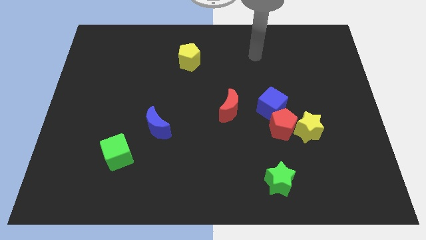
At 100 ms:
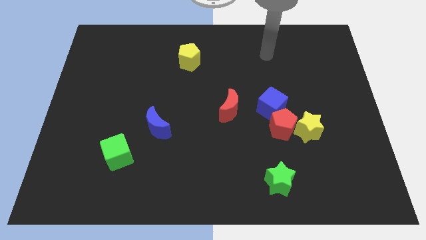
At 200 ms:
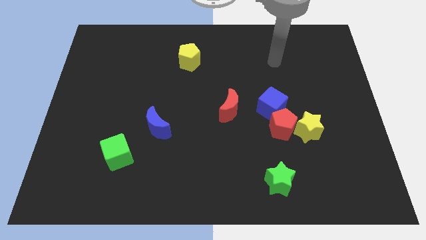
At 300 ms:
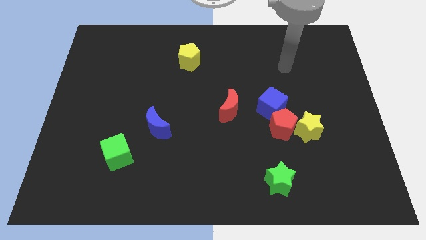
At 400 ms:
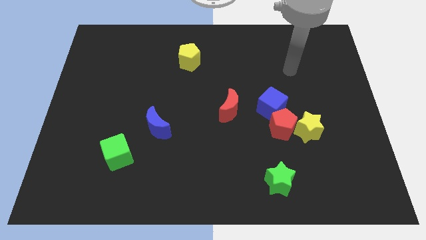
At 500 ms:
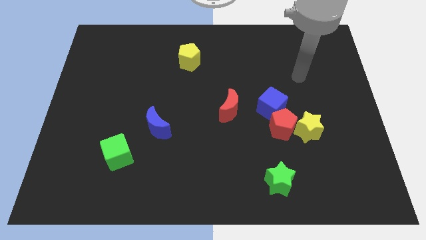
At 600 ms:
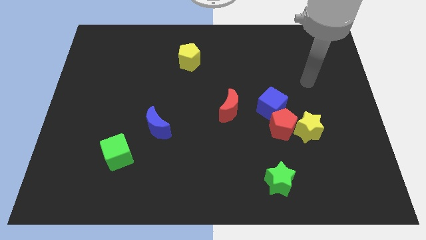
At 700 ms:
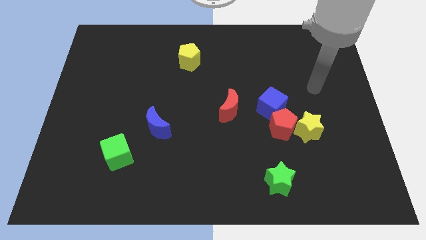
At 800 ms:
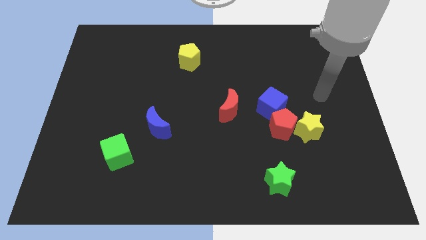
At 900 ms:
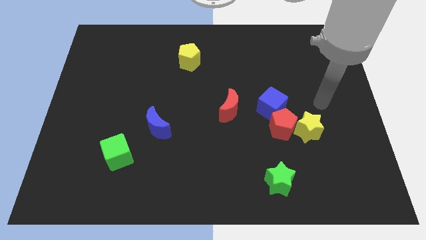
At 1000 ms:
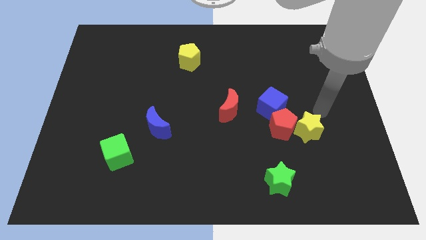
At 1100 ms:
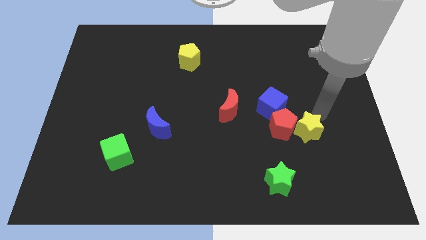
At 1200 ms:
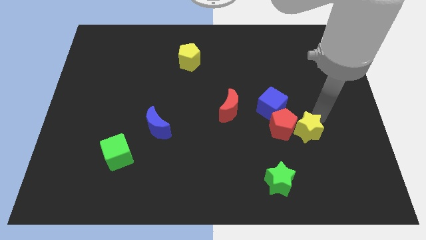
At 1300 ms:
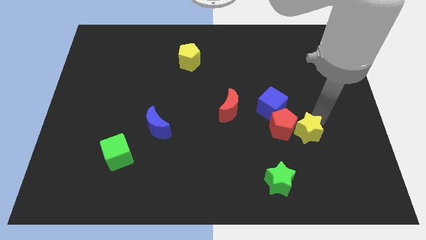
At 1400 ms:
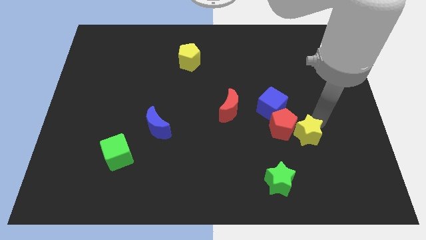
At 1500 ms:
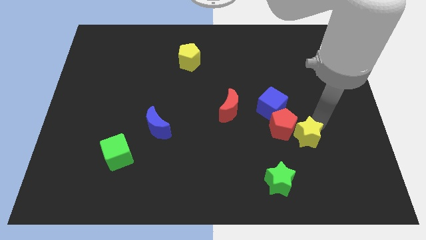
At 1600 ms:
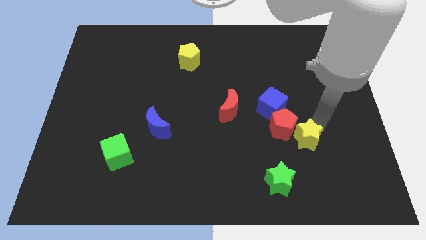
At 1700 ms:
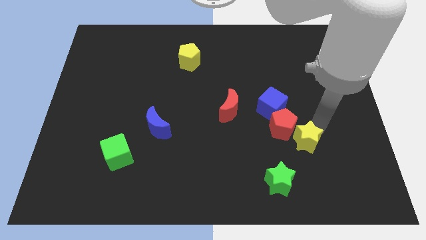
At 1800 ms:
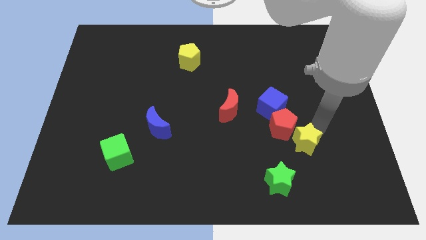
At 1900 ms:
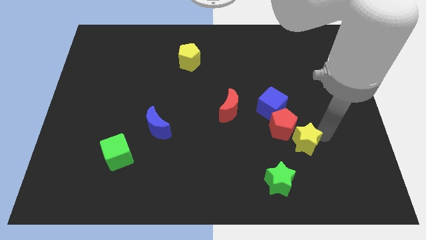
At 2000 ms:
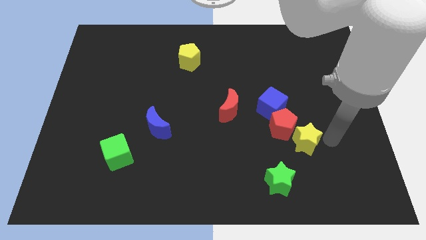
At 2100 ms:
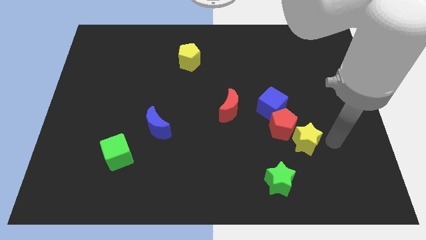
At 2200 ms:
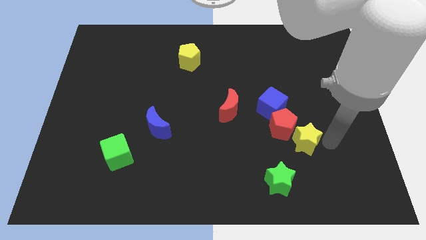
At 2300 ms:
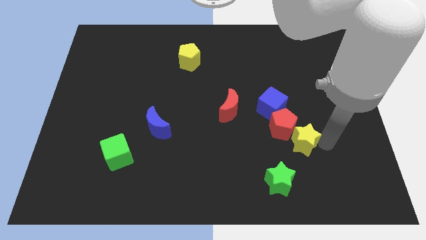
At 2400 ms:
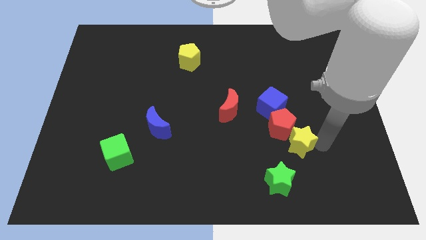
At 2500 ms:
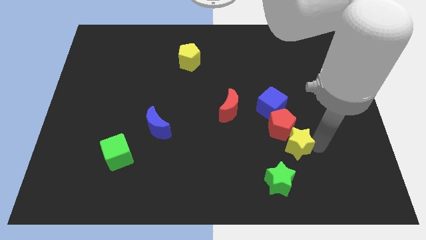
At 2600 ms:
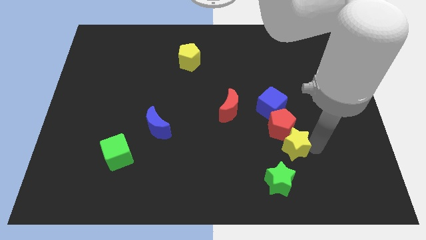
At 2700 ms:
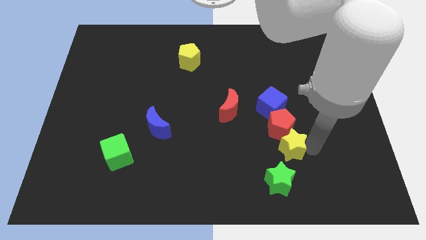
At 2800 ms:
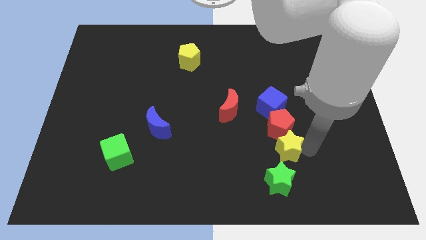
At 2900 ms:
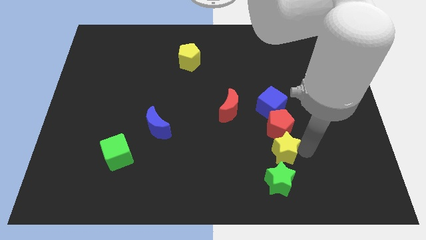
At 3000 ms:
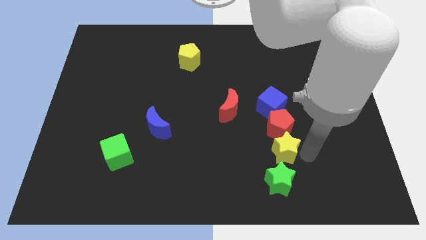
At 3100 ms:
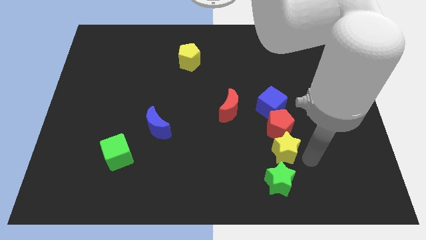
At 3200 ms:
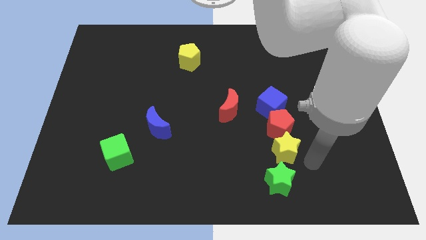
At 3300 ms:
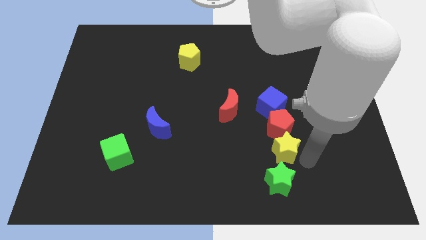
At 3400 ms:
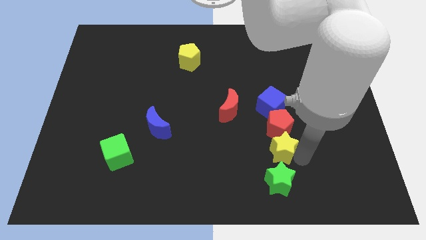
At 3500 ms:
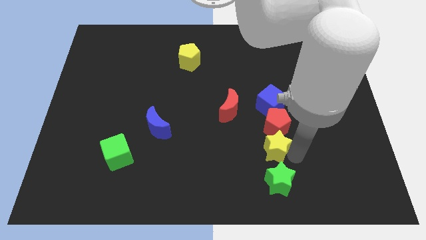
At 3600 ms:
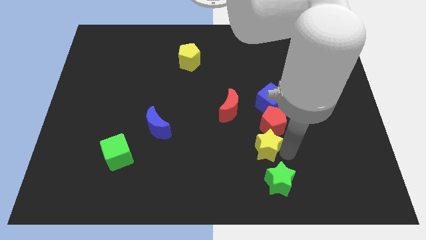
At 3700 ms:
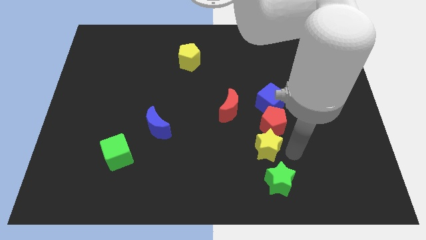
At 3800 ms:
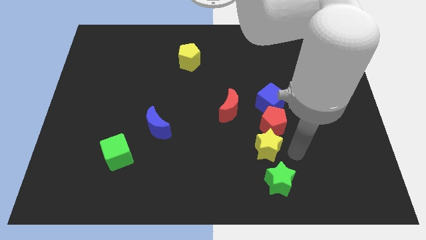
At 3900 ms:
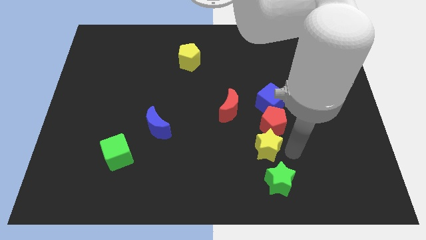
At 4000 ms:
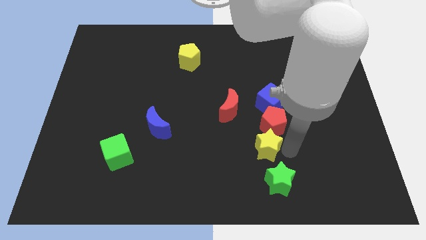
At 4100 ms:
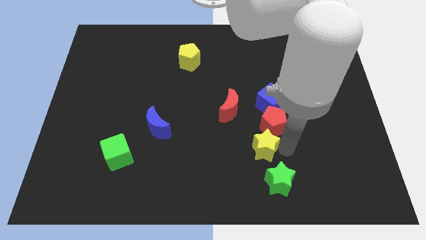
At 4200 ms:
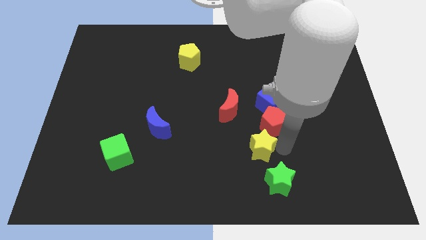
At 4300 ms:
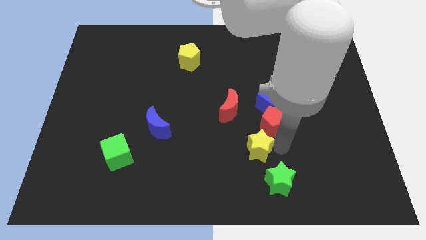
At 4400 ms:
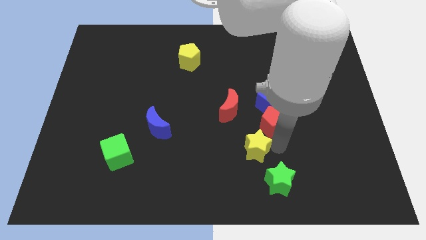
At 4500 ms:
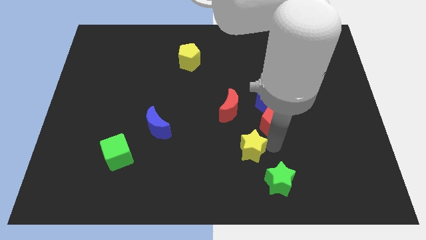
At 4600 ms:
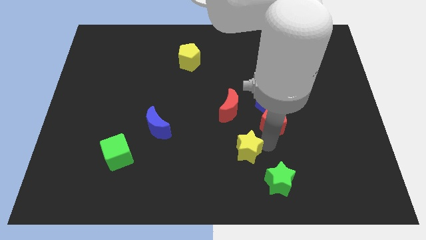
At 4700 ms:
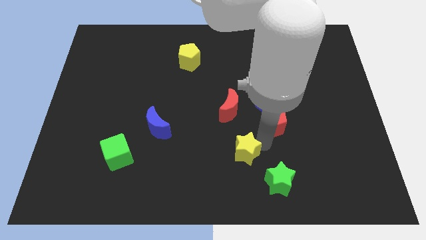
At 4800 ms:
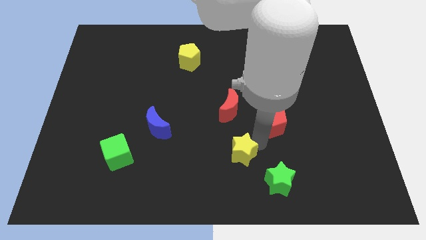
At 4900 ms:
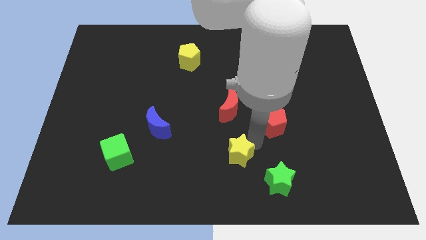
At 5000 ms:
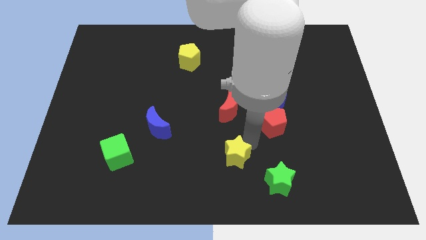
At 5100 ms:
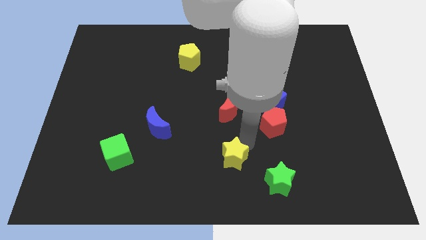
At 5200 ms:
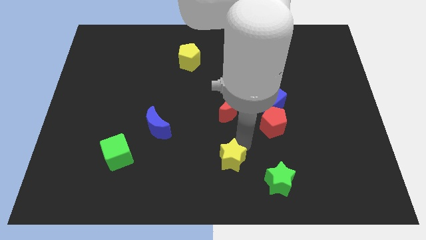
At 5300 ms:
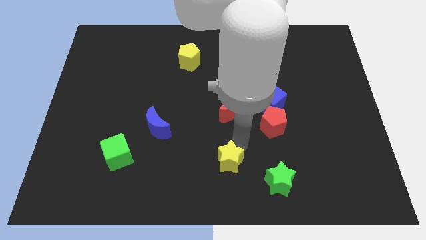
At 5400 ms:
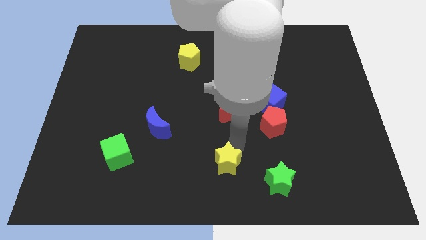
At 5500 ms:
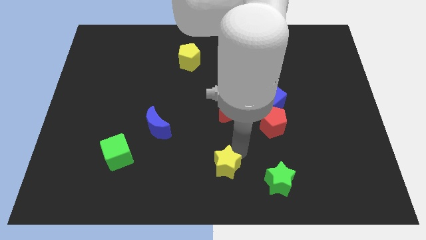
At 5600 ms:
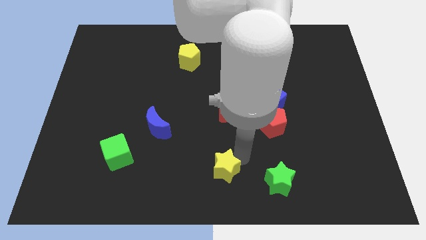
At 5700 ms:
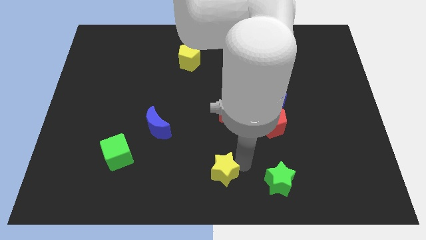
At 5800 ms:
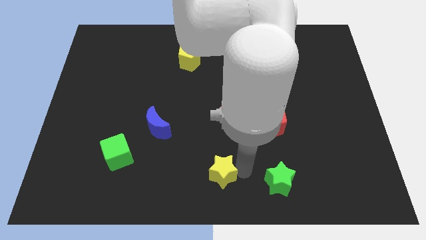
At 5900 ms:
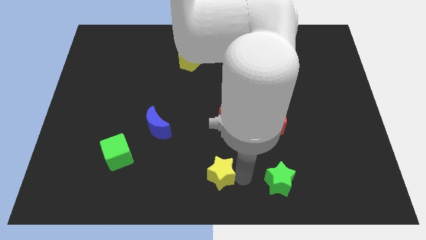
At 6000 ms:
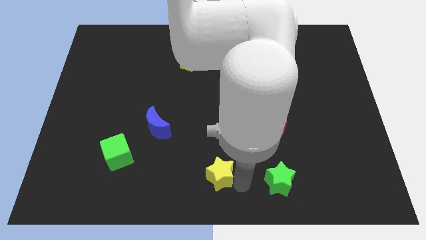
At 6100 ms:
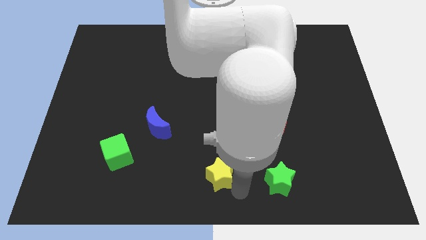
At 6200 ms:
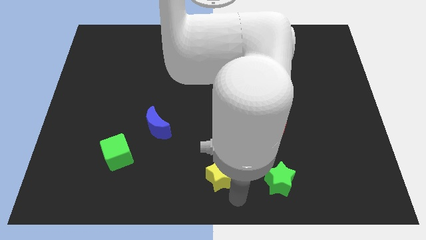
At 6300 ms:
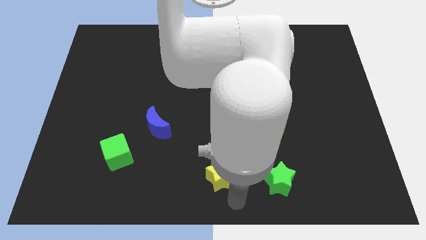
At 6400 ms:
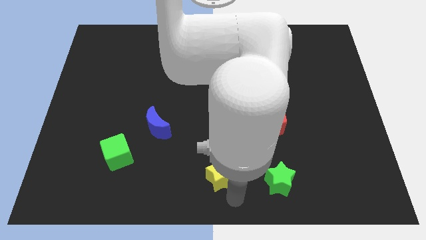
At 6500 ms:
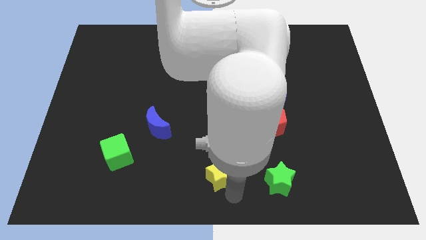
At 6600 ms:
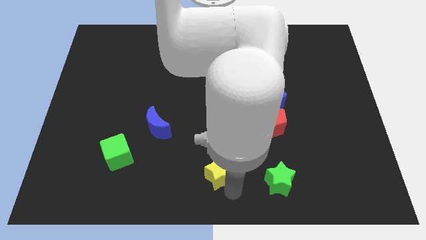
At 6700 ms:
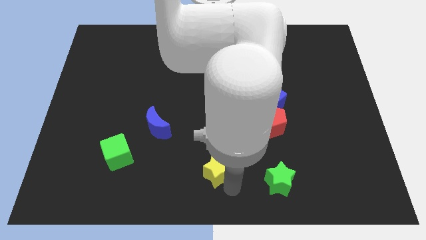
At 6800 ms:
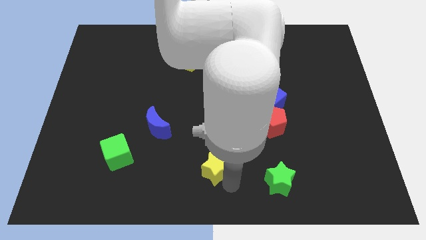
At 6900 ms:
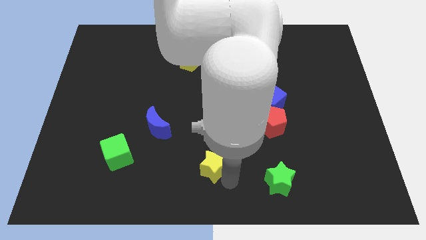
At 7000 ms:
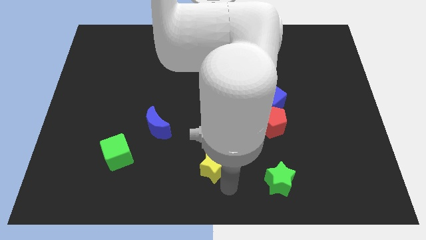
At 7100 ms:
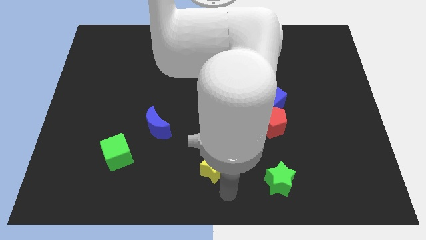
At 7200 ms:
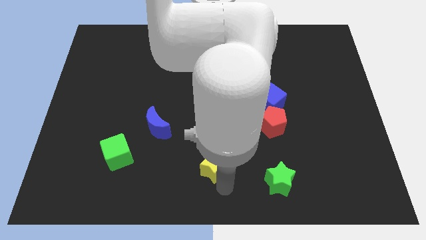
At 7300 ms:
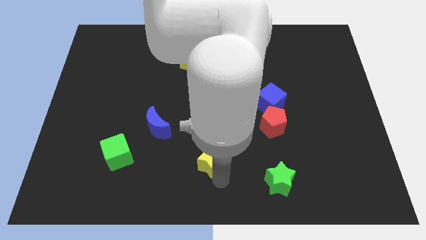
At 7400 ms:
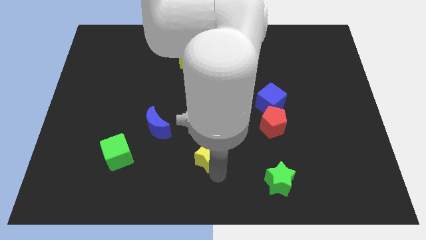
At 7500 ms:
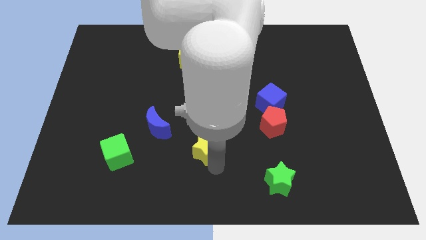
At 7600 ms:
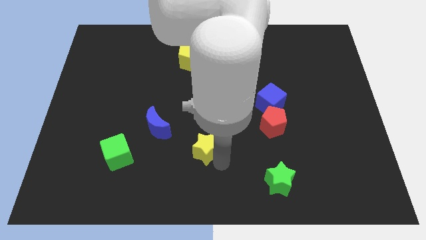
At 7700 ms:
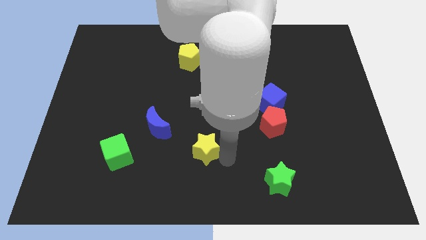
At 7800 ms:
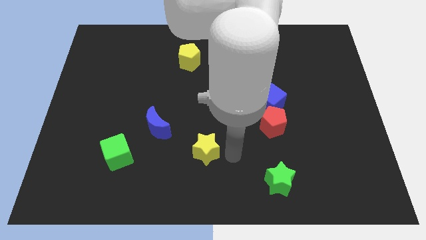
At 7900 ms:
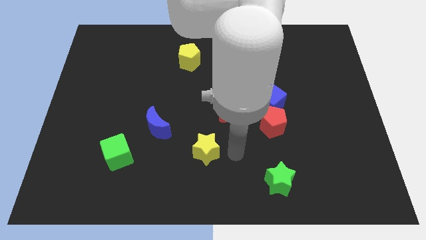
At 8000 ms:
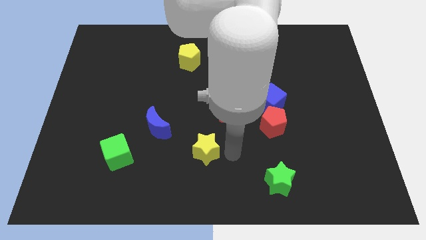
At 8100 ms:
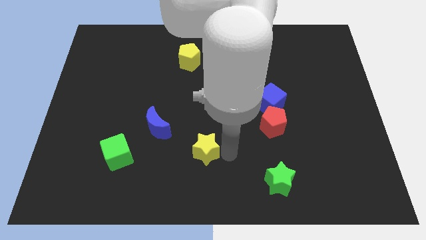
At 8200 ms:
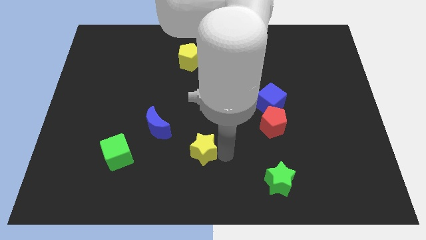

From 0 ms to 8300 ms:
put the yellow star to the bottom right of the blue moon
